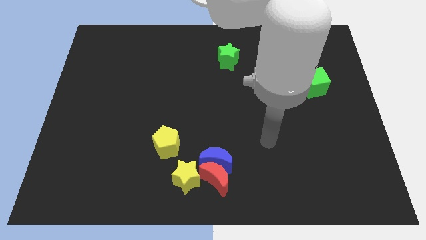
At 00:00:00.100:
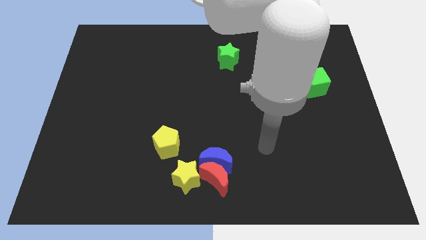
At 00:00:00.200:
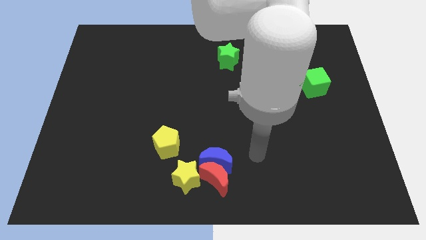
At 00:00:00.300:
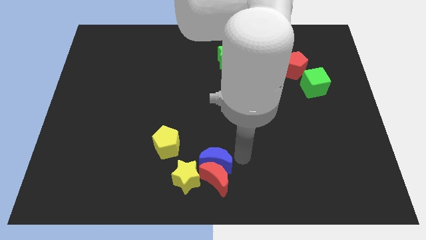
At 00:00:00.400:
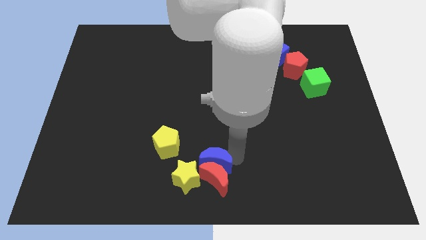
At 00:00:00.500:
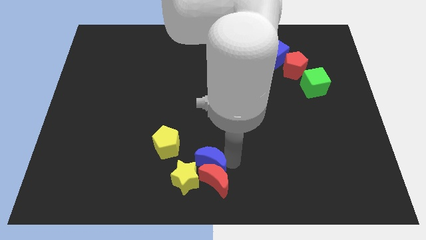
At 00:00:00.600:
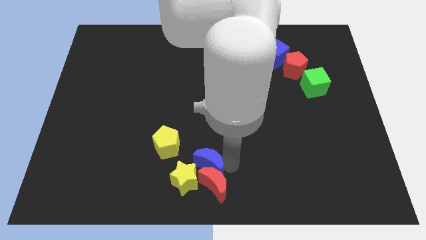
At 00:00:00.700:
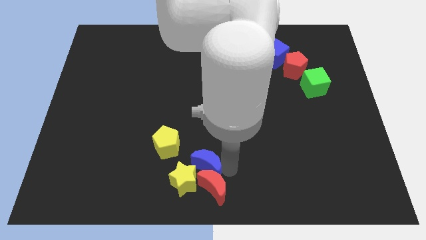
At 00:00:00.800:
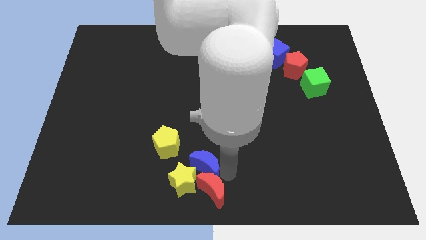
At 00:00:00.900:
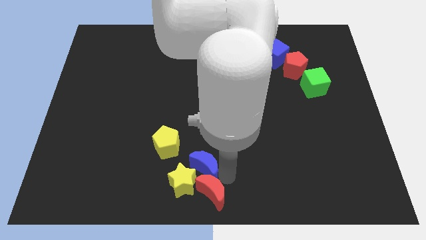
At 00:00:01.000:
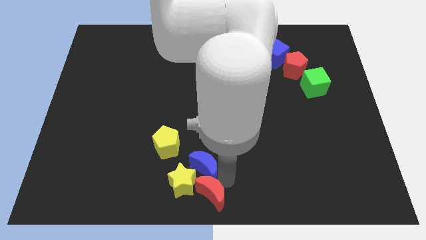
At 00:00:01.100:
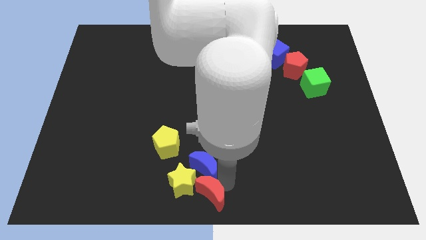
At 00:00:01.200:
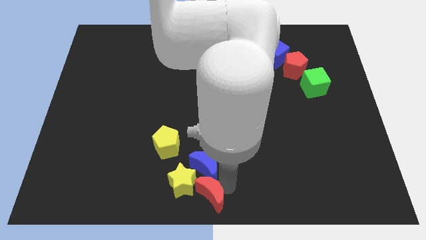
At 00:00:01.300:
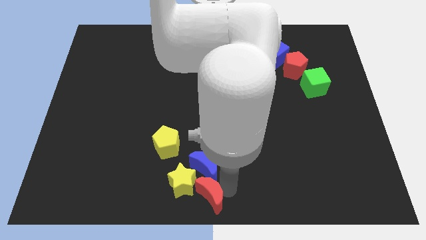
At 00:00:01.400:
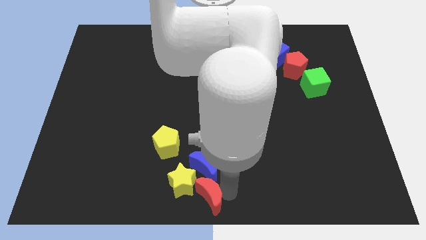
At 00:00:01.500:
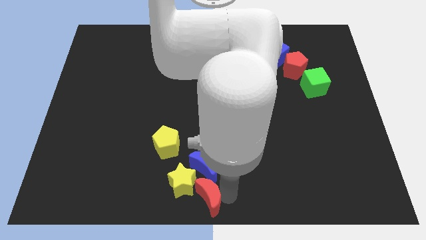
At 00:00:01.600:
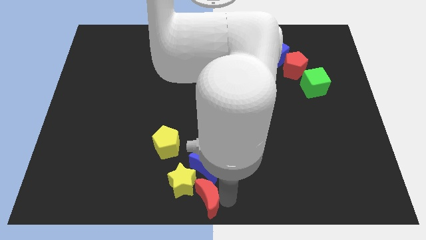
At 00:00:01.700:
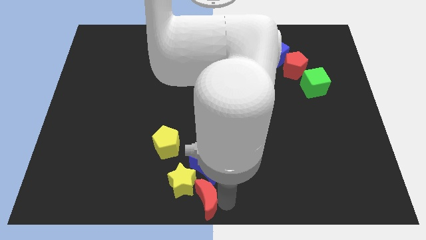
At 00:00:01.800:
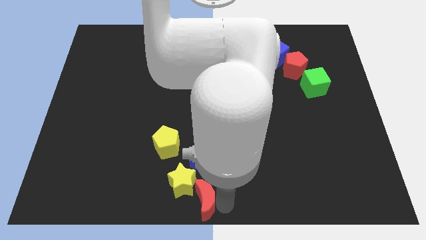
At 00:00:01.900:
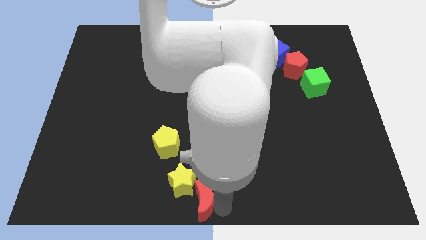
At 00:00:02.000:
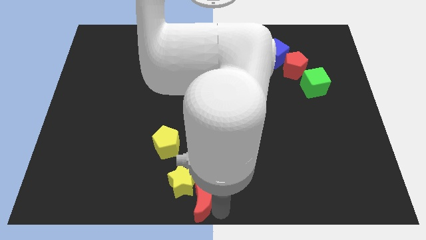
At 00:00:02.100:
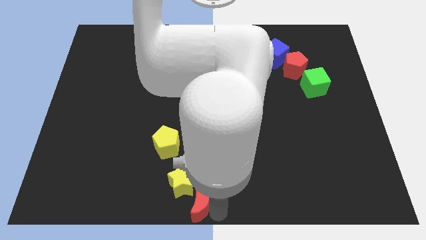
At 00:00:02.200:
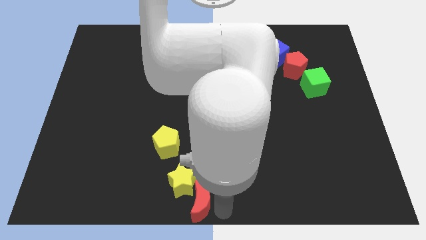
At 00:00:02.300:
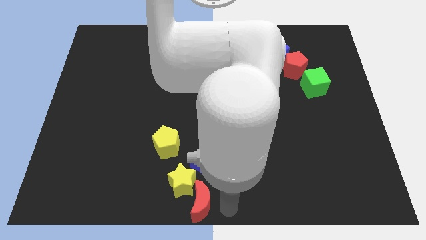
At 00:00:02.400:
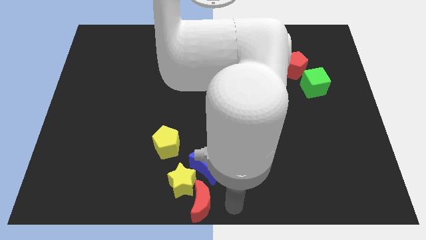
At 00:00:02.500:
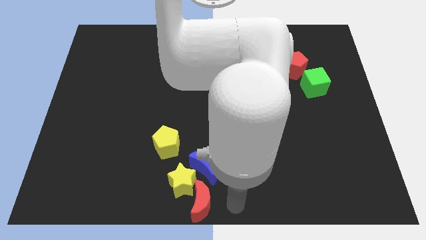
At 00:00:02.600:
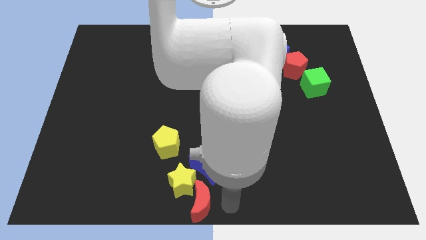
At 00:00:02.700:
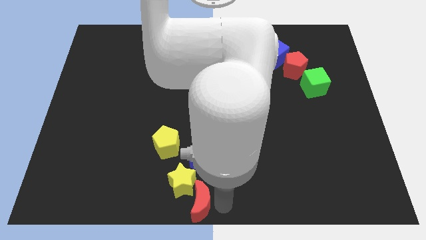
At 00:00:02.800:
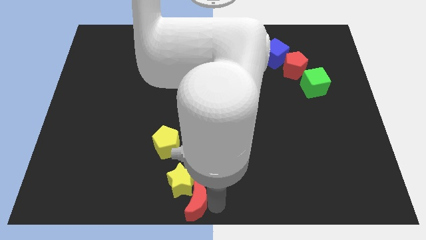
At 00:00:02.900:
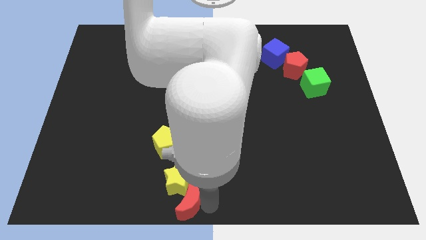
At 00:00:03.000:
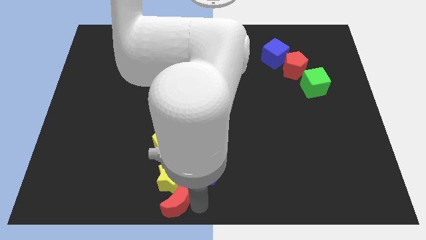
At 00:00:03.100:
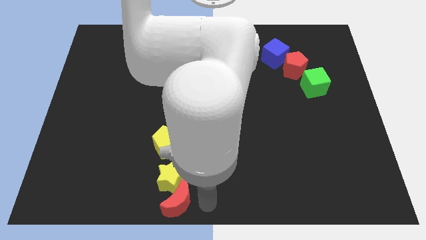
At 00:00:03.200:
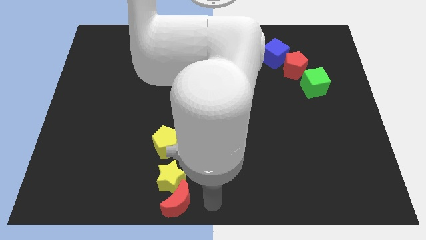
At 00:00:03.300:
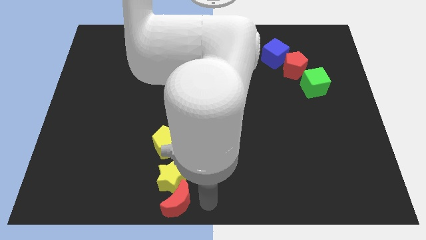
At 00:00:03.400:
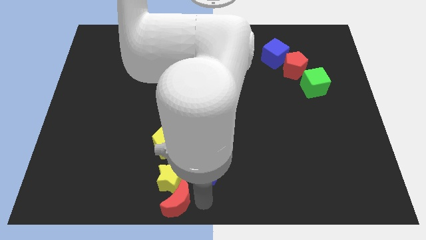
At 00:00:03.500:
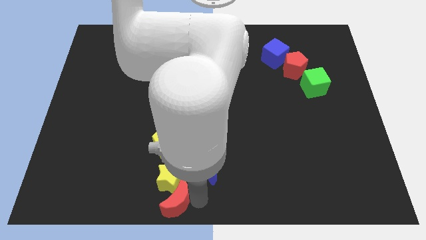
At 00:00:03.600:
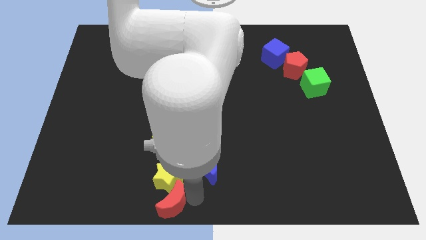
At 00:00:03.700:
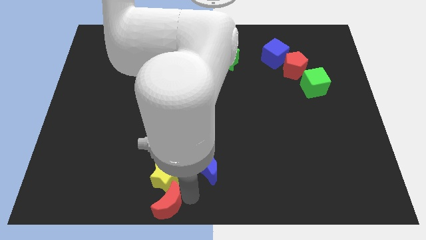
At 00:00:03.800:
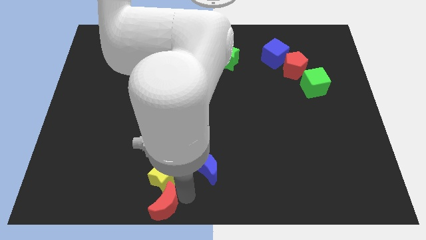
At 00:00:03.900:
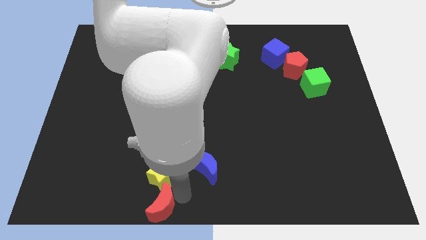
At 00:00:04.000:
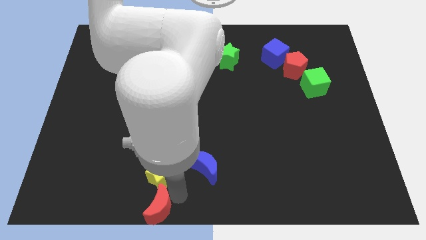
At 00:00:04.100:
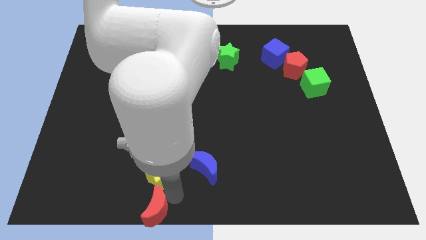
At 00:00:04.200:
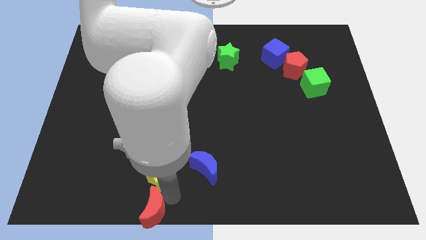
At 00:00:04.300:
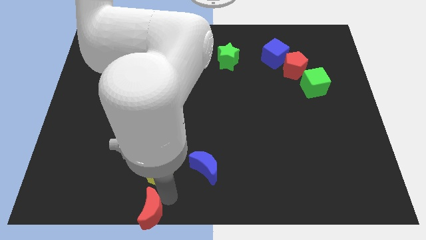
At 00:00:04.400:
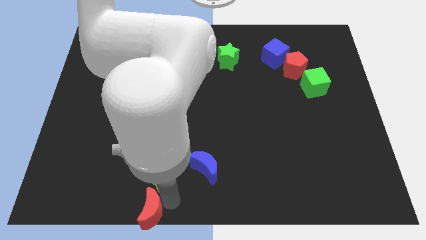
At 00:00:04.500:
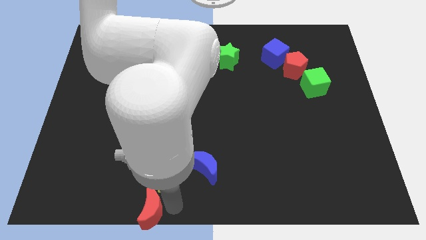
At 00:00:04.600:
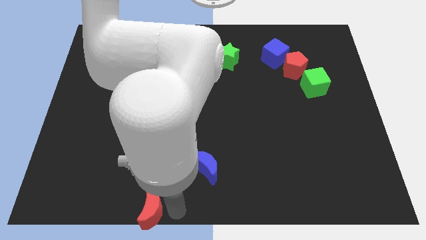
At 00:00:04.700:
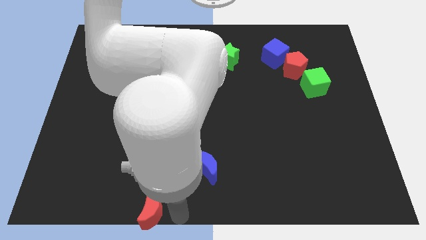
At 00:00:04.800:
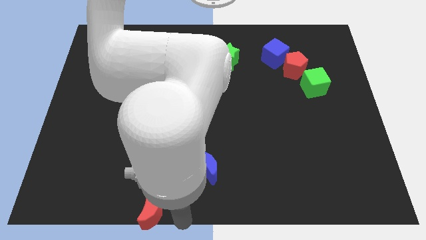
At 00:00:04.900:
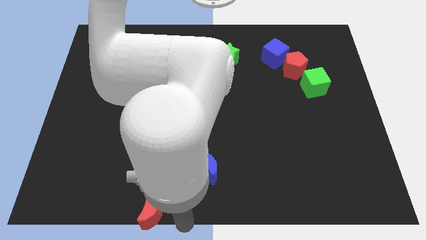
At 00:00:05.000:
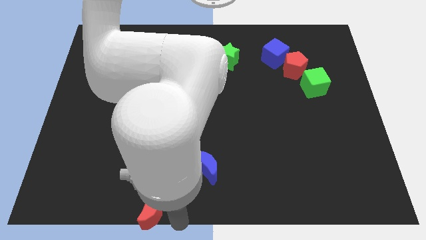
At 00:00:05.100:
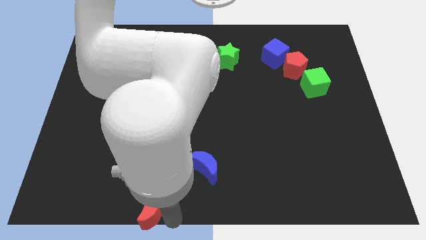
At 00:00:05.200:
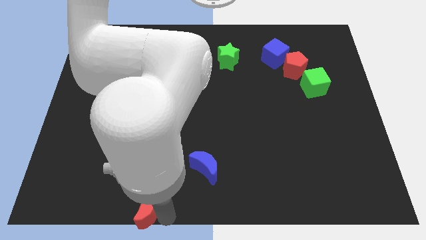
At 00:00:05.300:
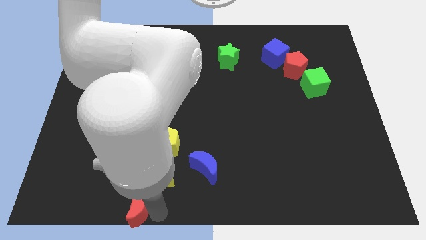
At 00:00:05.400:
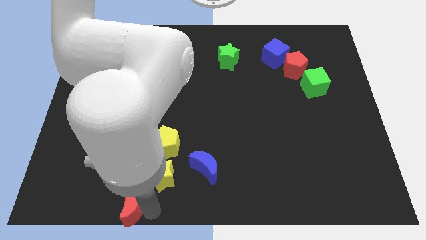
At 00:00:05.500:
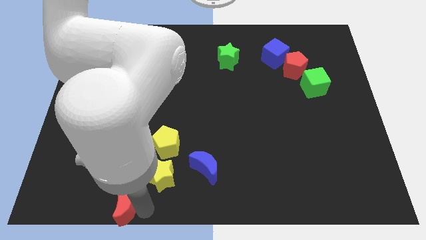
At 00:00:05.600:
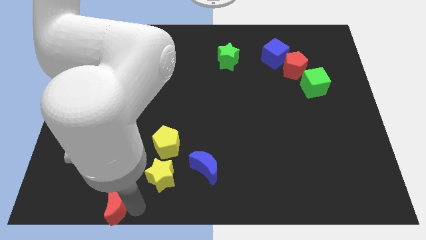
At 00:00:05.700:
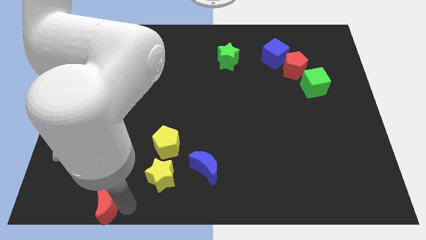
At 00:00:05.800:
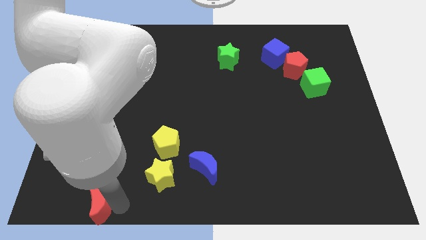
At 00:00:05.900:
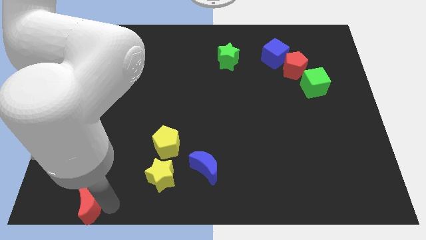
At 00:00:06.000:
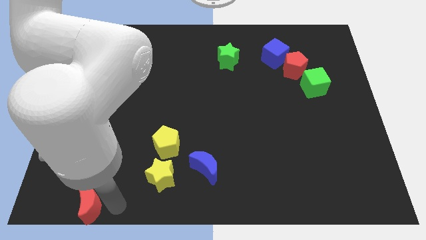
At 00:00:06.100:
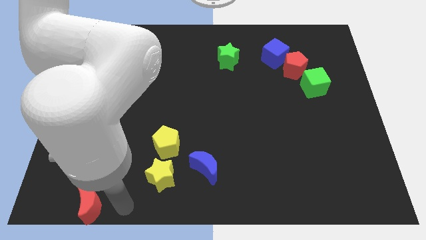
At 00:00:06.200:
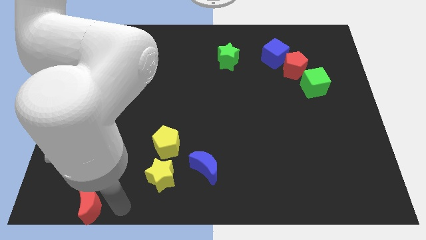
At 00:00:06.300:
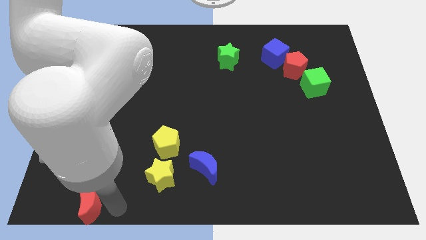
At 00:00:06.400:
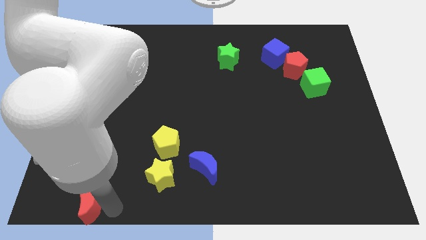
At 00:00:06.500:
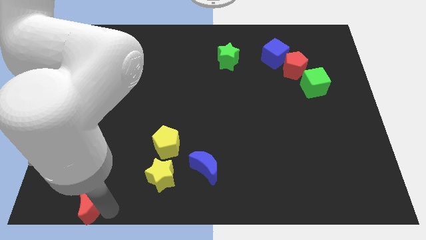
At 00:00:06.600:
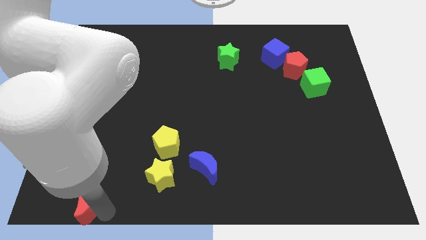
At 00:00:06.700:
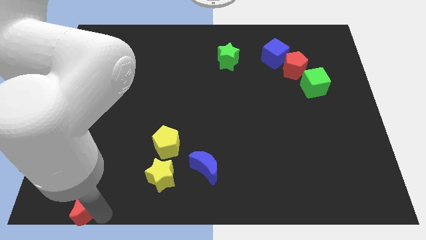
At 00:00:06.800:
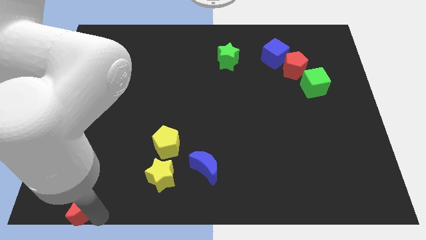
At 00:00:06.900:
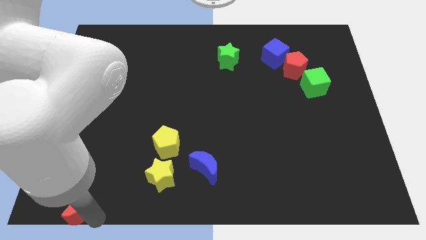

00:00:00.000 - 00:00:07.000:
move the red moon to the bottom left of the board

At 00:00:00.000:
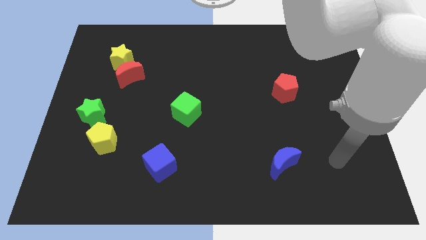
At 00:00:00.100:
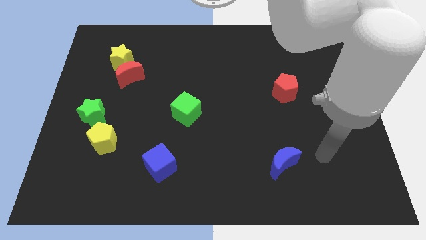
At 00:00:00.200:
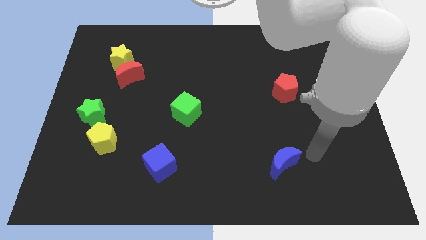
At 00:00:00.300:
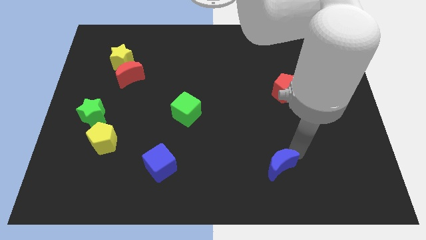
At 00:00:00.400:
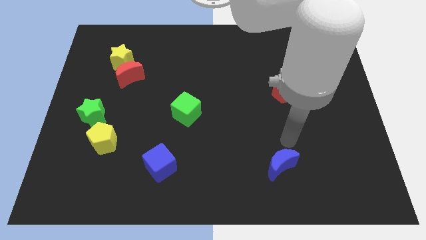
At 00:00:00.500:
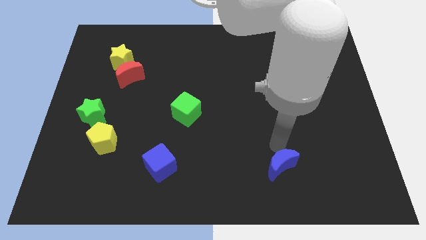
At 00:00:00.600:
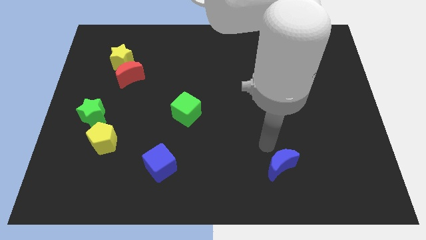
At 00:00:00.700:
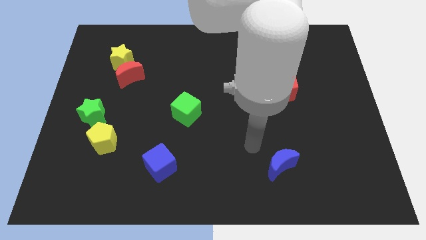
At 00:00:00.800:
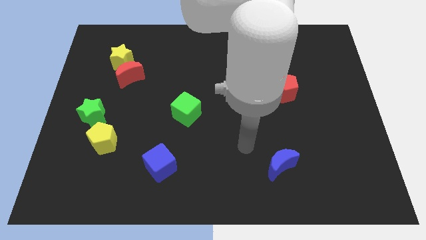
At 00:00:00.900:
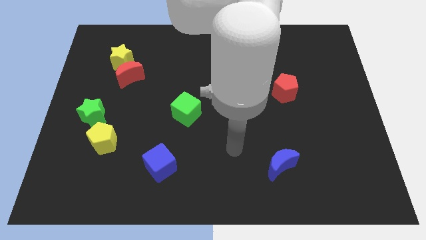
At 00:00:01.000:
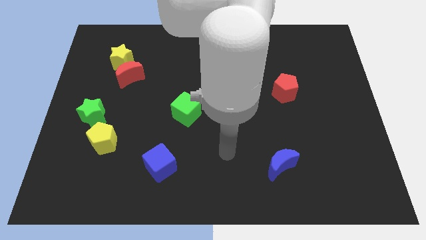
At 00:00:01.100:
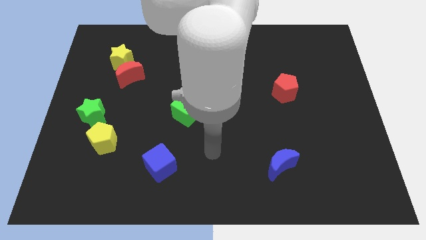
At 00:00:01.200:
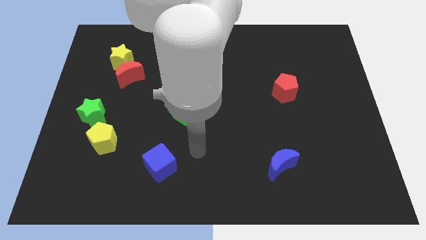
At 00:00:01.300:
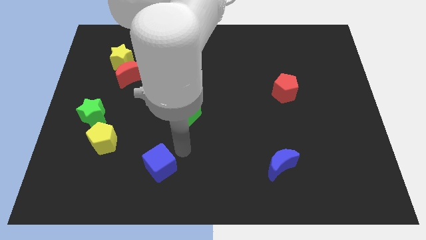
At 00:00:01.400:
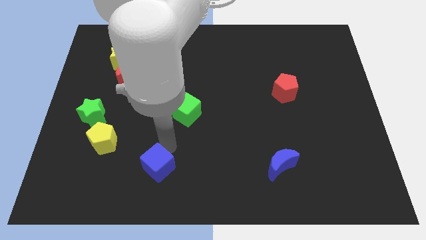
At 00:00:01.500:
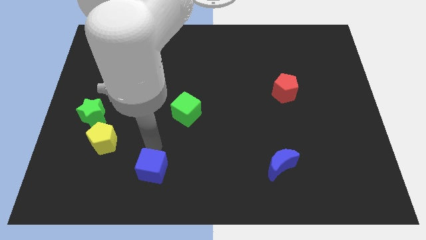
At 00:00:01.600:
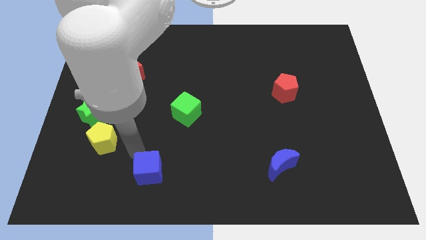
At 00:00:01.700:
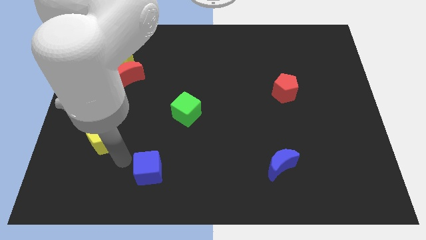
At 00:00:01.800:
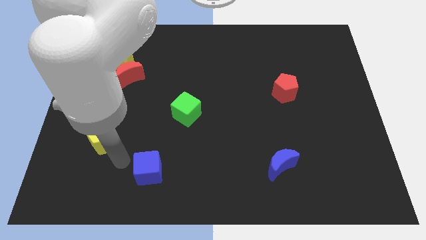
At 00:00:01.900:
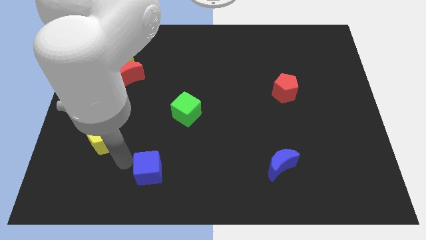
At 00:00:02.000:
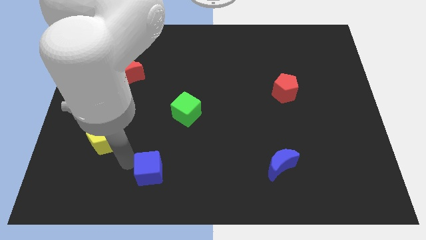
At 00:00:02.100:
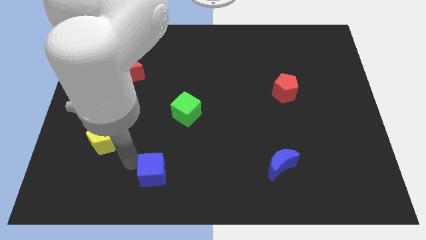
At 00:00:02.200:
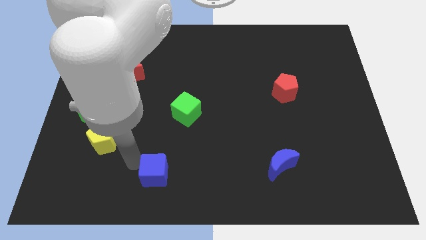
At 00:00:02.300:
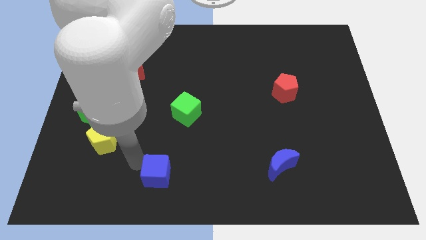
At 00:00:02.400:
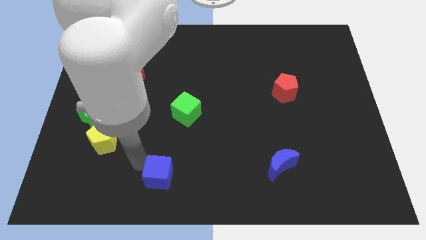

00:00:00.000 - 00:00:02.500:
slide the blue cube to the bottom
